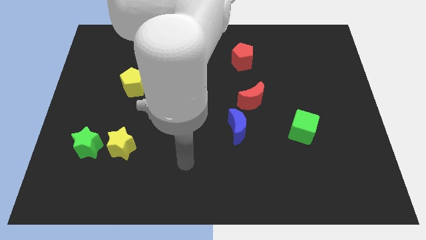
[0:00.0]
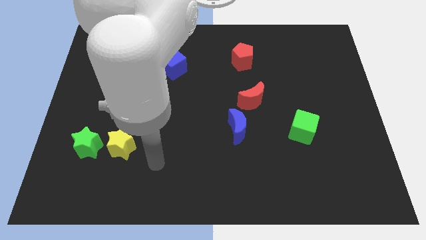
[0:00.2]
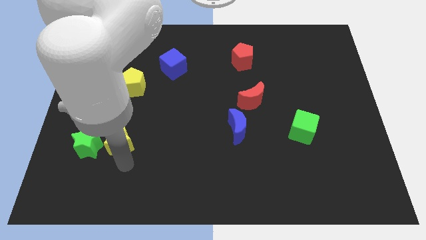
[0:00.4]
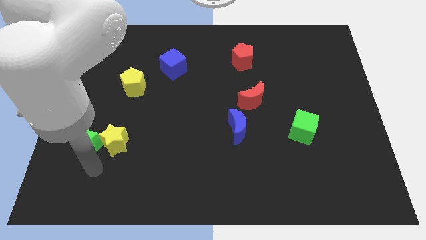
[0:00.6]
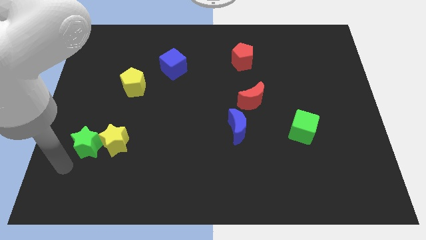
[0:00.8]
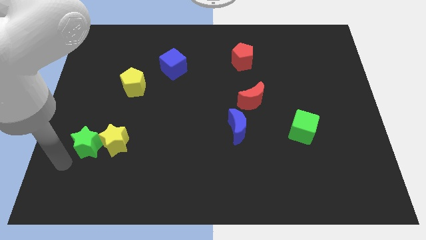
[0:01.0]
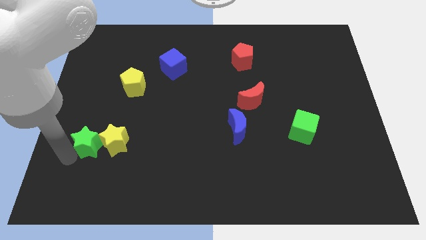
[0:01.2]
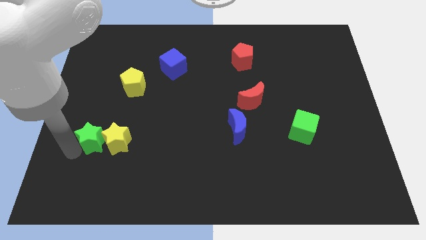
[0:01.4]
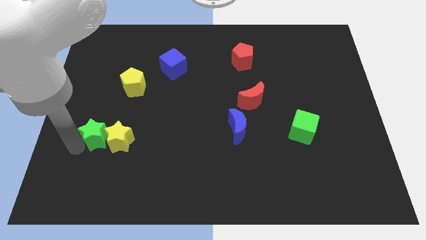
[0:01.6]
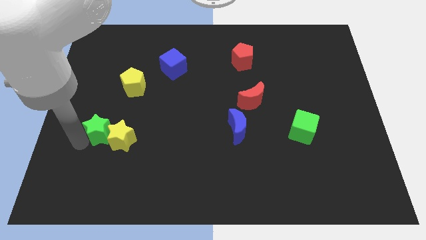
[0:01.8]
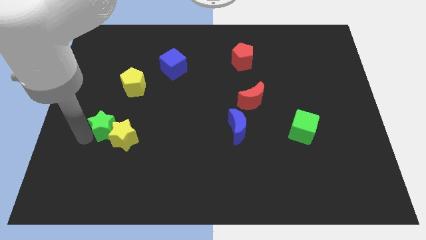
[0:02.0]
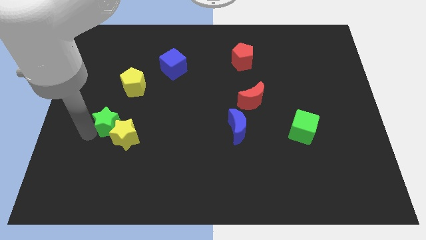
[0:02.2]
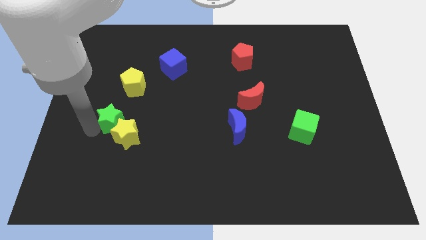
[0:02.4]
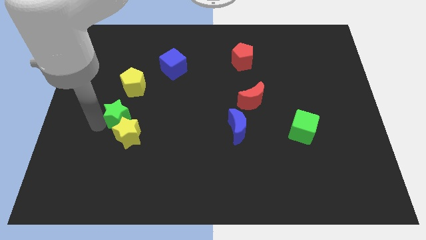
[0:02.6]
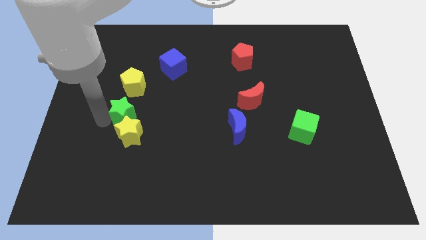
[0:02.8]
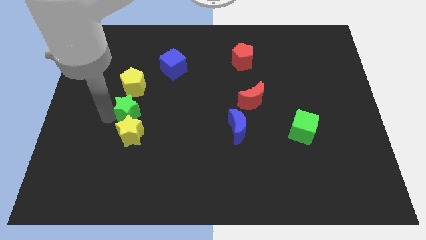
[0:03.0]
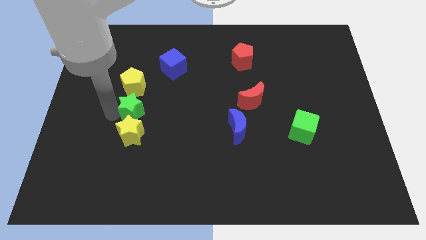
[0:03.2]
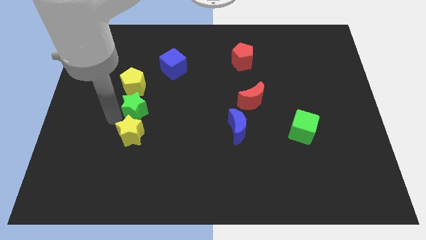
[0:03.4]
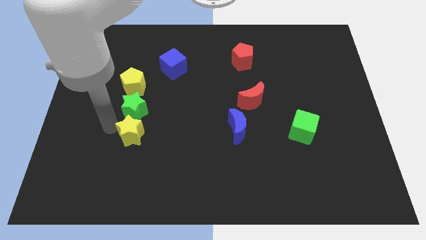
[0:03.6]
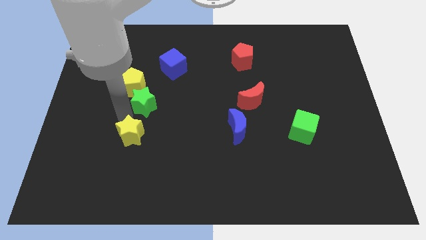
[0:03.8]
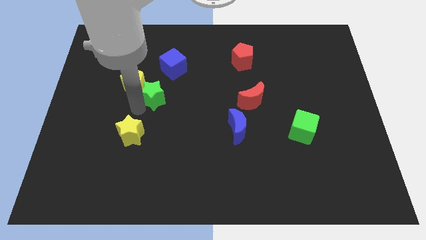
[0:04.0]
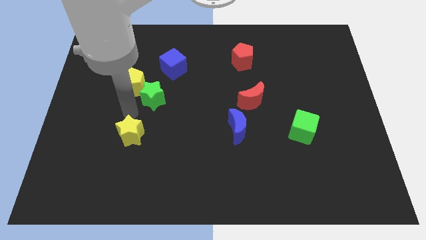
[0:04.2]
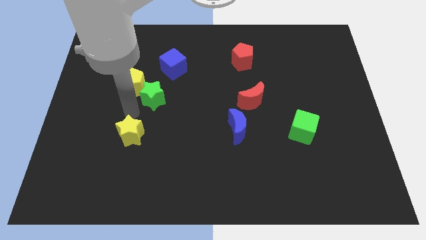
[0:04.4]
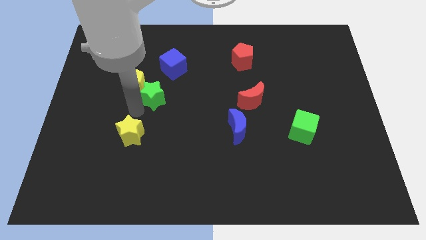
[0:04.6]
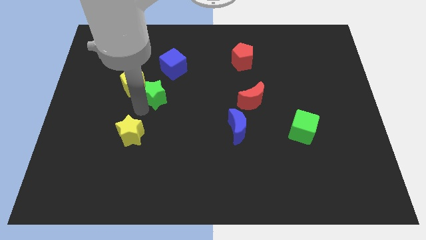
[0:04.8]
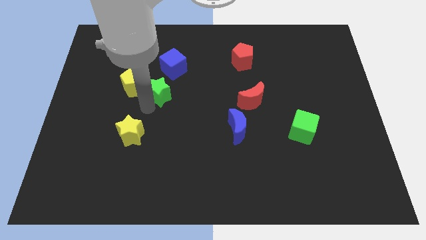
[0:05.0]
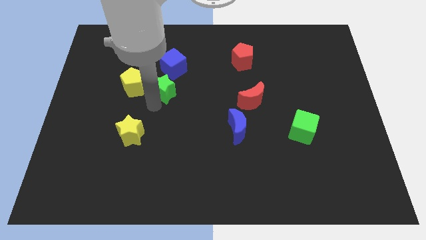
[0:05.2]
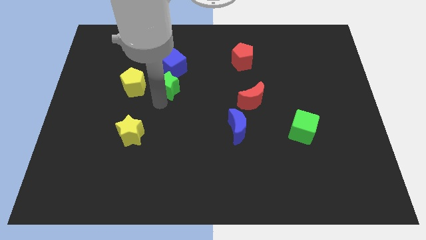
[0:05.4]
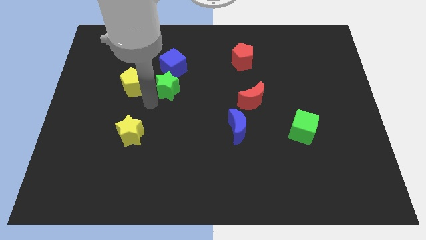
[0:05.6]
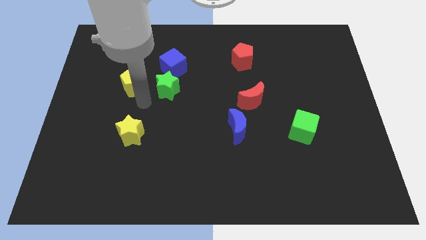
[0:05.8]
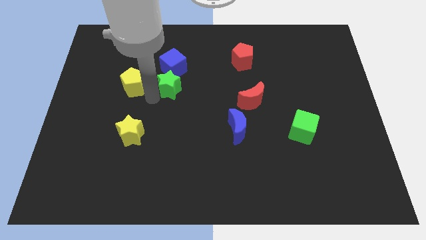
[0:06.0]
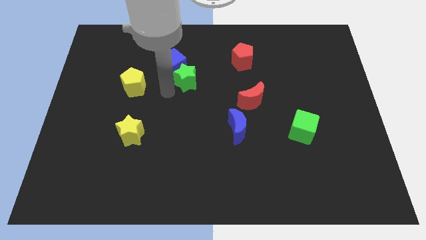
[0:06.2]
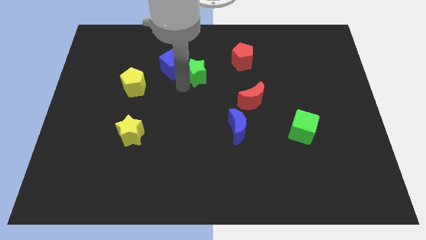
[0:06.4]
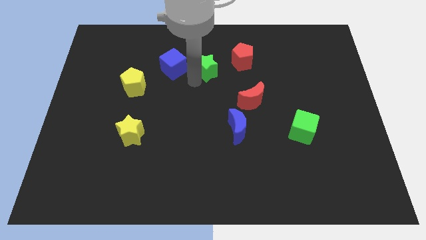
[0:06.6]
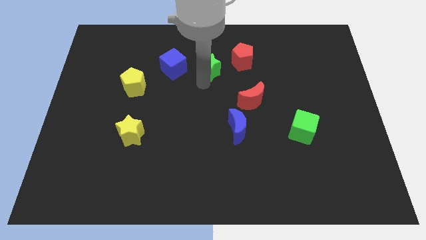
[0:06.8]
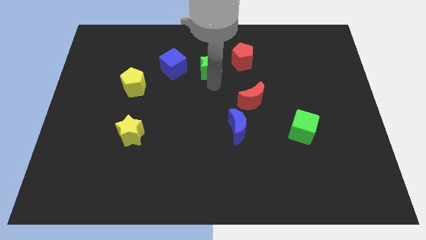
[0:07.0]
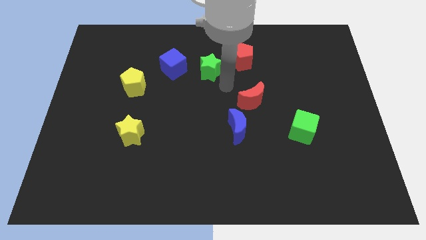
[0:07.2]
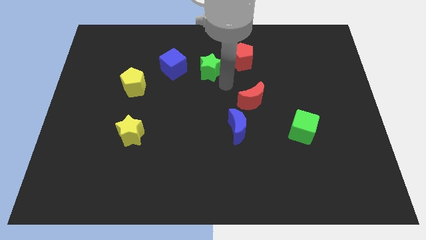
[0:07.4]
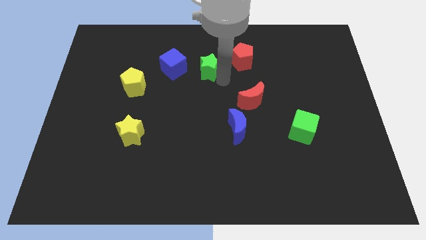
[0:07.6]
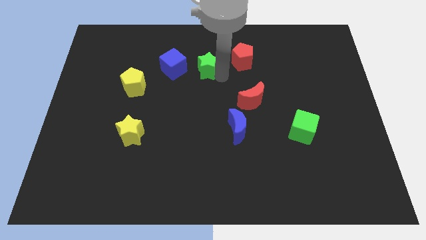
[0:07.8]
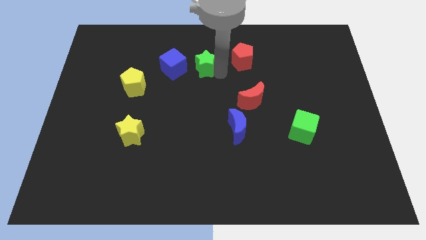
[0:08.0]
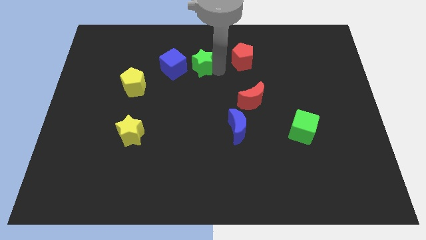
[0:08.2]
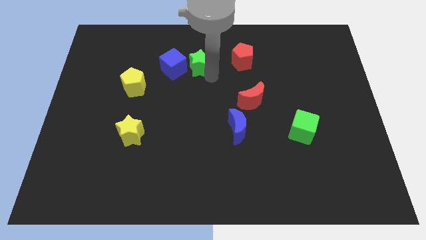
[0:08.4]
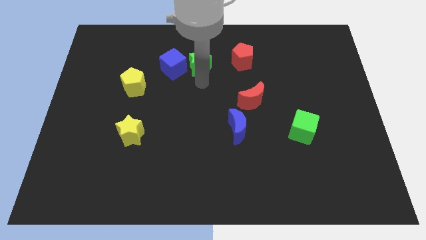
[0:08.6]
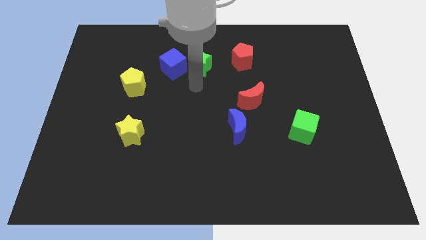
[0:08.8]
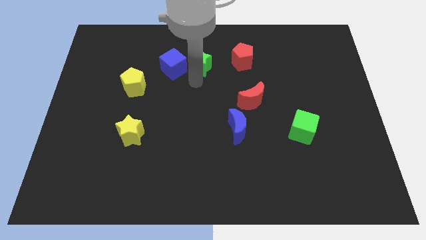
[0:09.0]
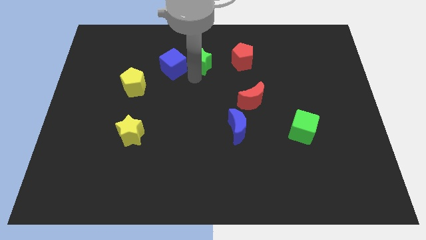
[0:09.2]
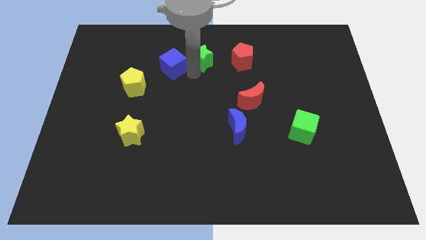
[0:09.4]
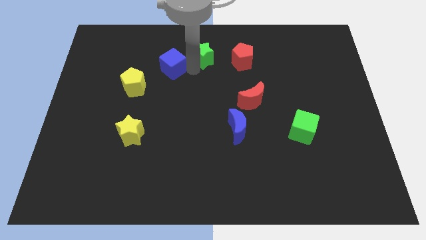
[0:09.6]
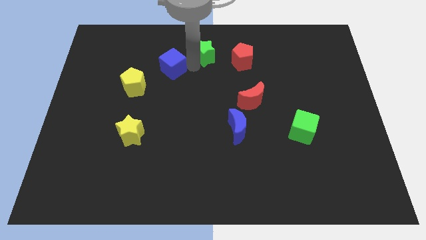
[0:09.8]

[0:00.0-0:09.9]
put the green star to the top side

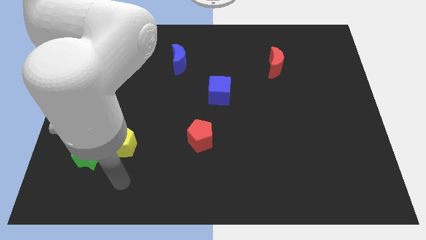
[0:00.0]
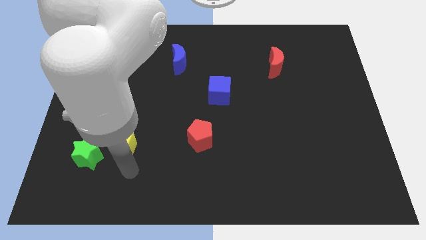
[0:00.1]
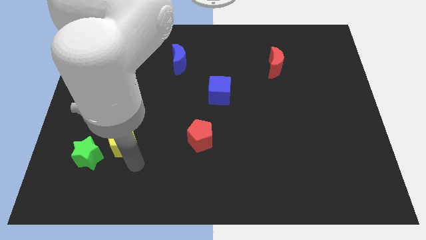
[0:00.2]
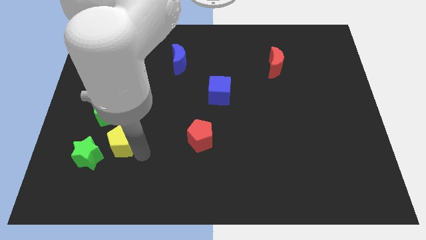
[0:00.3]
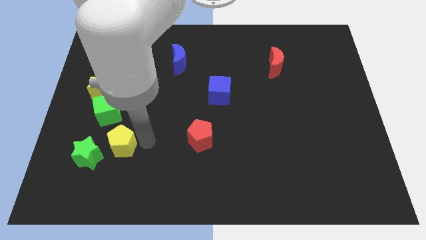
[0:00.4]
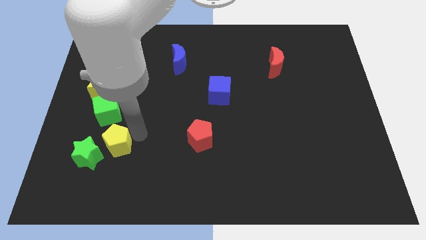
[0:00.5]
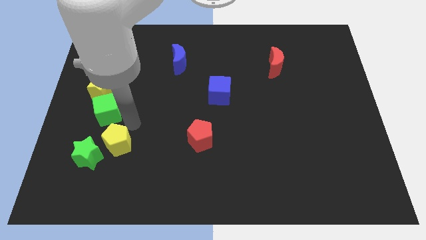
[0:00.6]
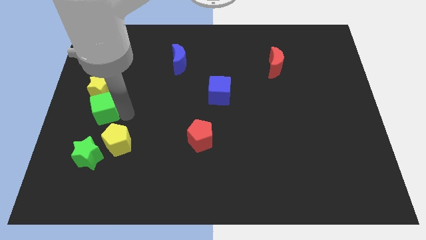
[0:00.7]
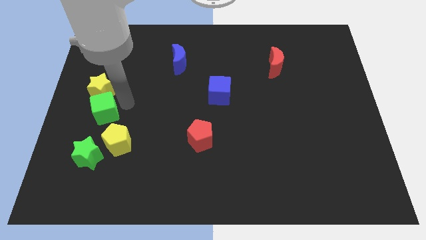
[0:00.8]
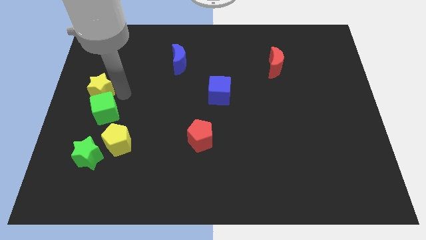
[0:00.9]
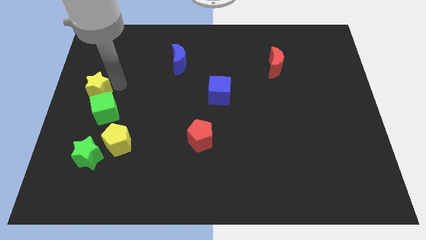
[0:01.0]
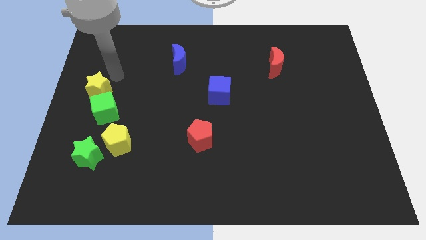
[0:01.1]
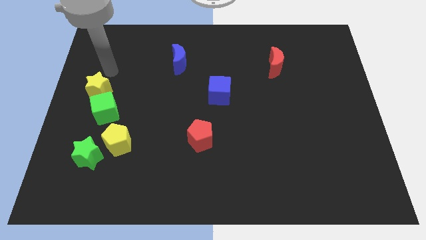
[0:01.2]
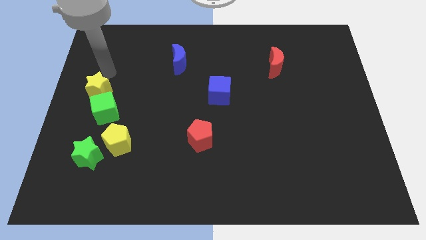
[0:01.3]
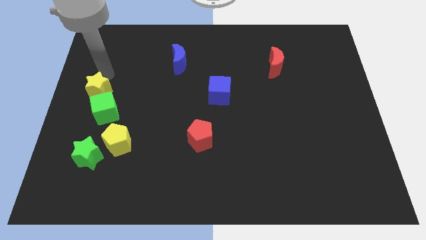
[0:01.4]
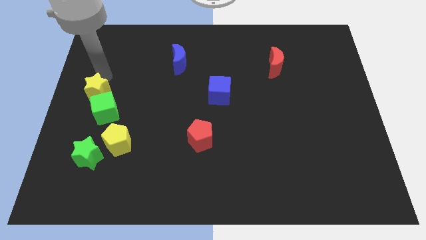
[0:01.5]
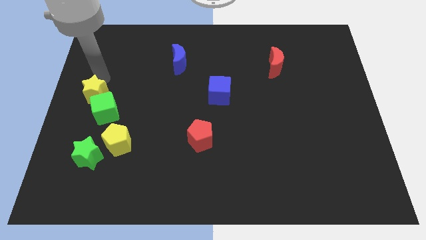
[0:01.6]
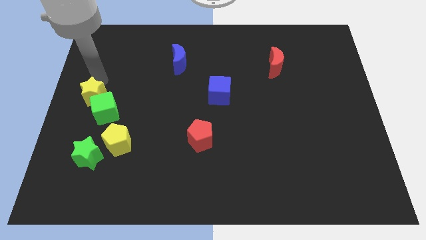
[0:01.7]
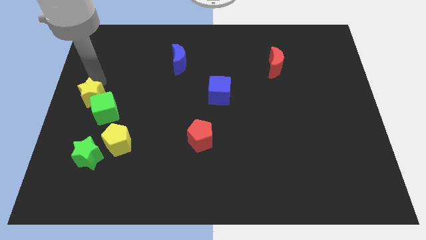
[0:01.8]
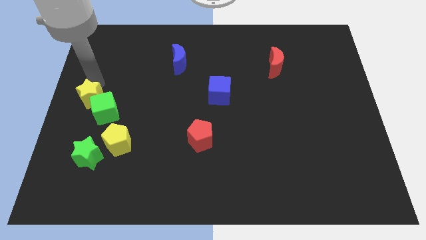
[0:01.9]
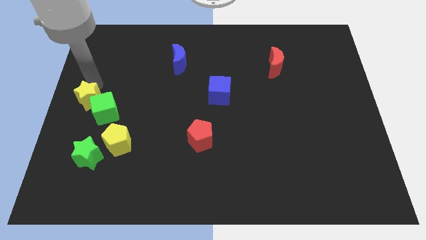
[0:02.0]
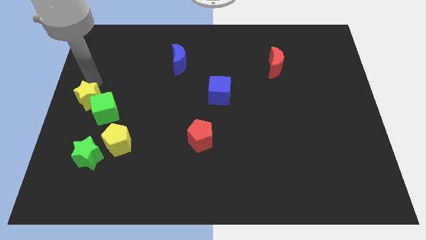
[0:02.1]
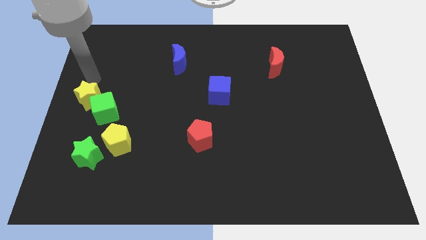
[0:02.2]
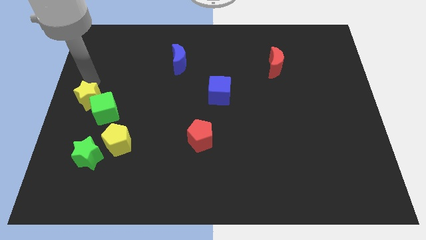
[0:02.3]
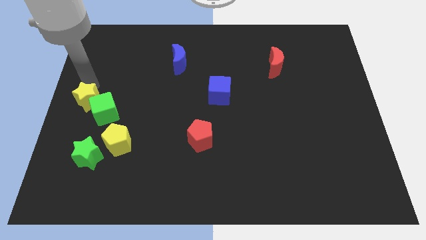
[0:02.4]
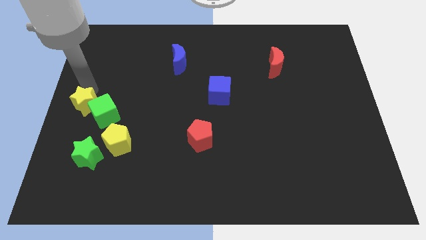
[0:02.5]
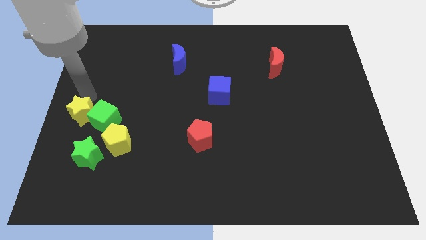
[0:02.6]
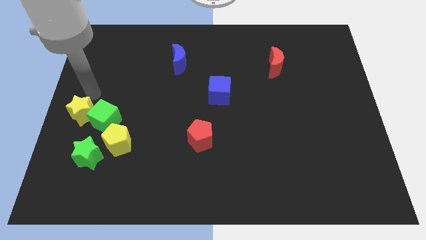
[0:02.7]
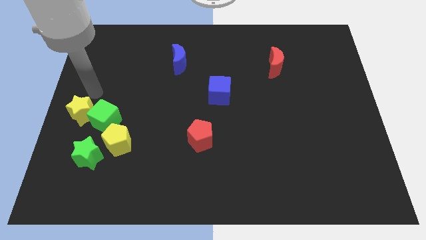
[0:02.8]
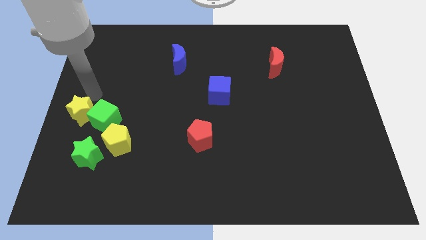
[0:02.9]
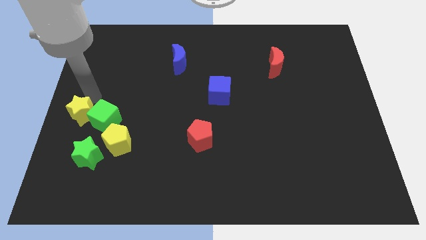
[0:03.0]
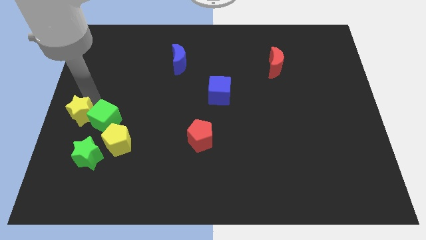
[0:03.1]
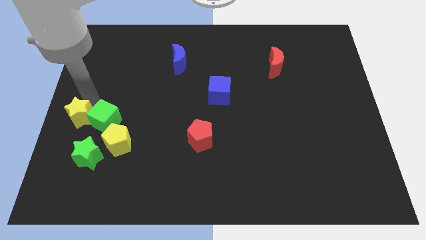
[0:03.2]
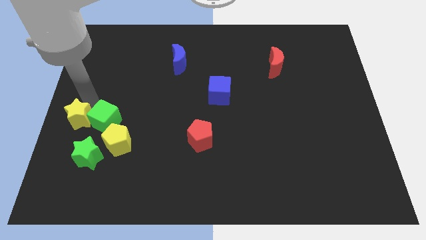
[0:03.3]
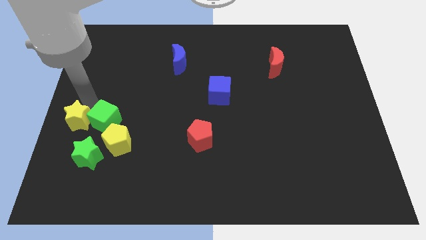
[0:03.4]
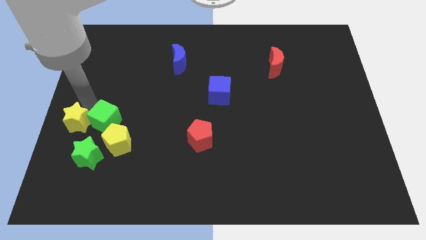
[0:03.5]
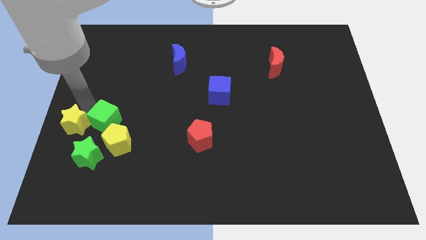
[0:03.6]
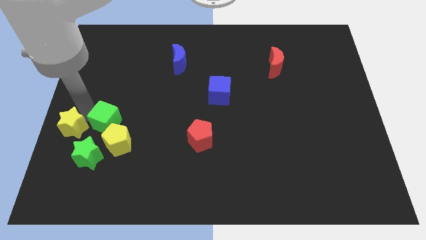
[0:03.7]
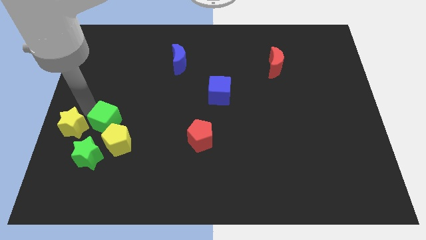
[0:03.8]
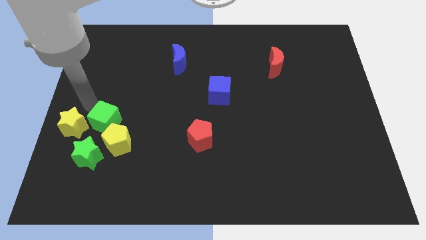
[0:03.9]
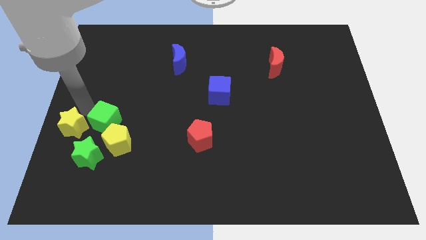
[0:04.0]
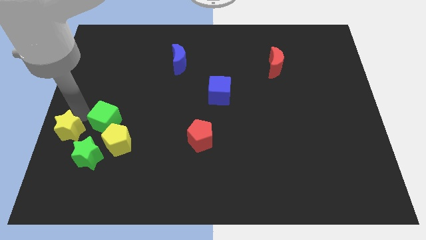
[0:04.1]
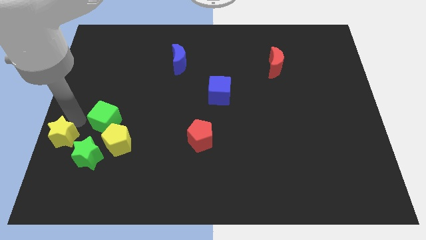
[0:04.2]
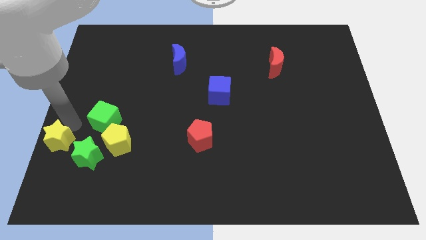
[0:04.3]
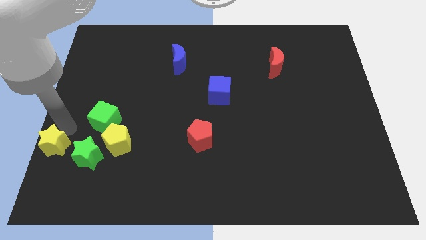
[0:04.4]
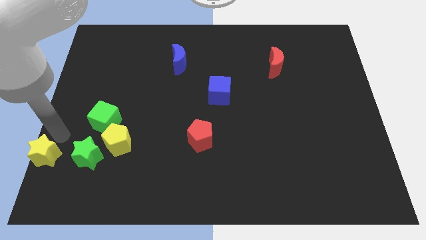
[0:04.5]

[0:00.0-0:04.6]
move the yellow star to the bottom left corner
